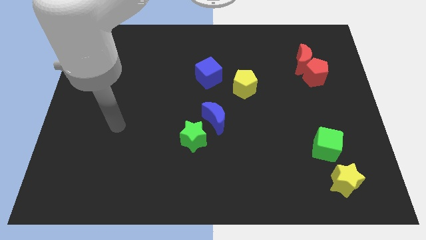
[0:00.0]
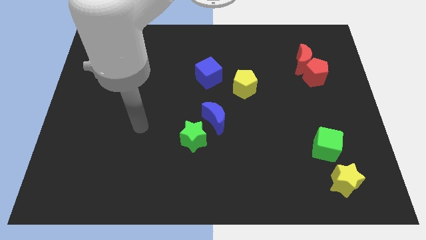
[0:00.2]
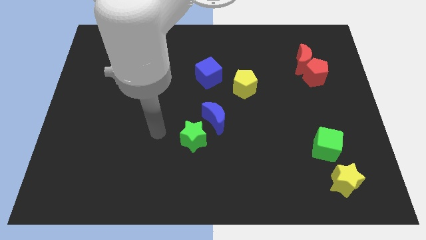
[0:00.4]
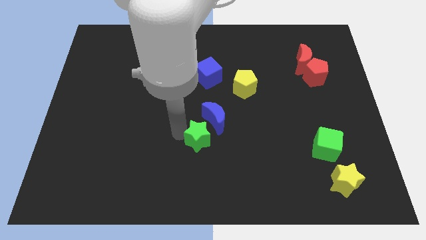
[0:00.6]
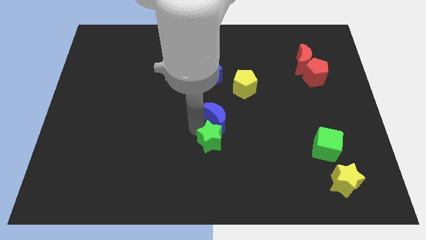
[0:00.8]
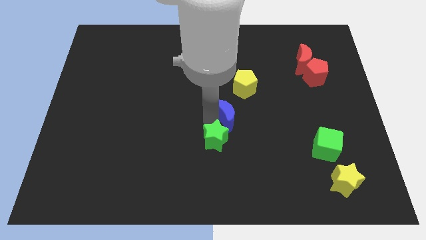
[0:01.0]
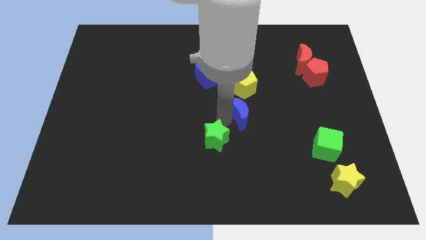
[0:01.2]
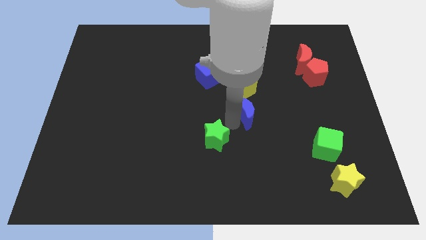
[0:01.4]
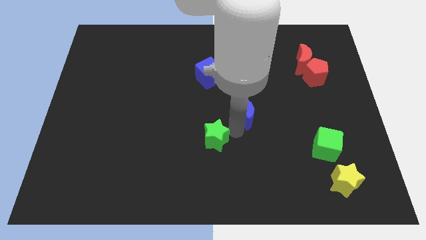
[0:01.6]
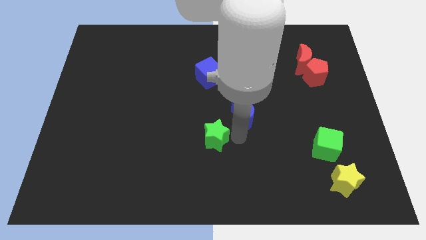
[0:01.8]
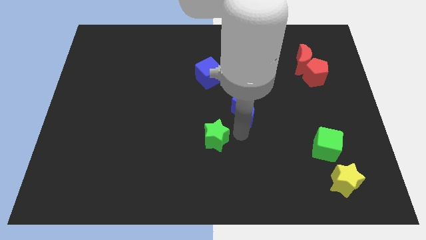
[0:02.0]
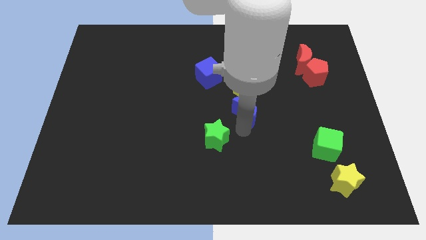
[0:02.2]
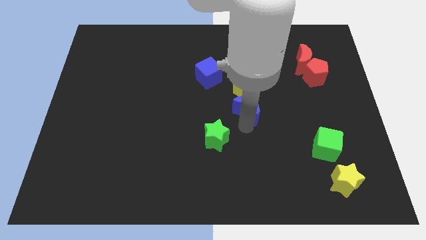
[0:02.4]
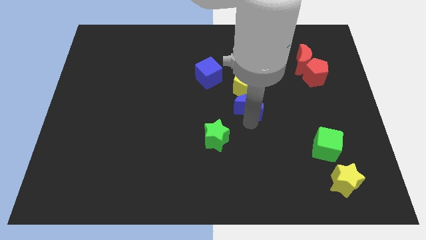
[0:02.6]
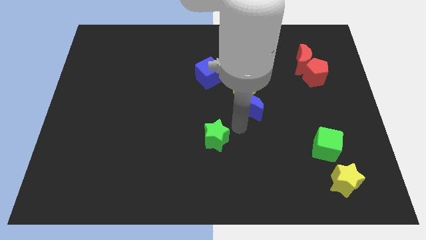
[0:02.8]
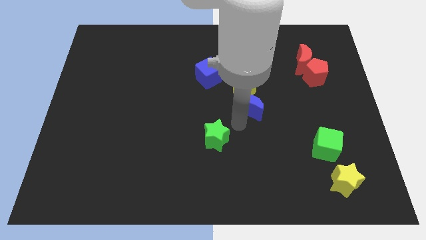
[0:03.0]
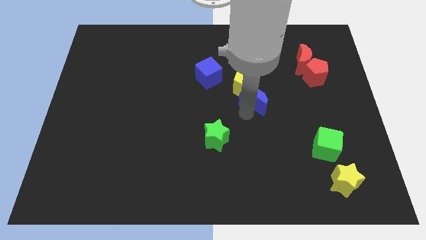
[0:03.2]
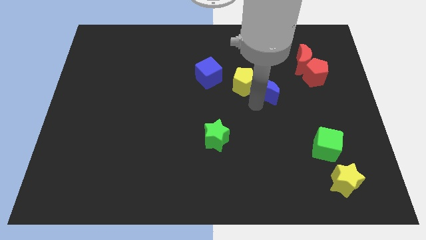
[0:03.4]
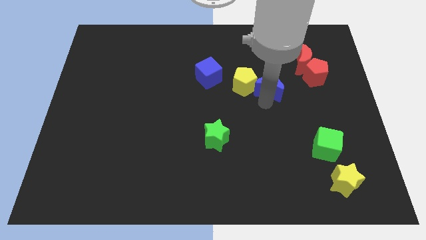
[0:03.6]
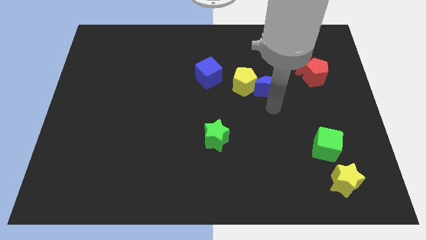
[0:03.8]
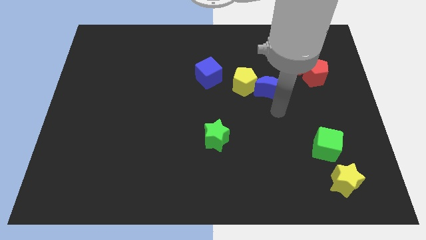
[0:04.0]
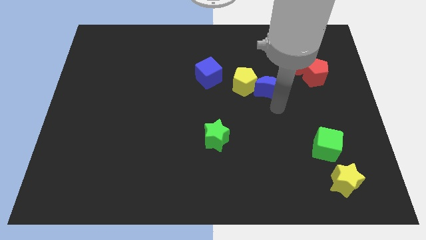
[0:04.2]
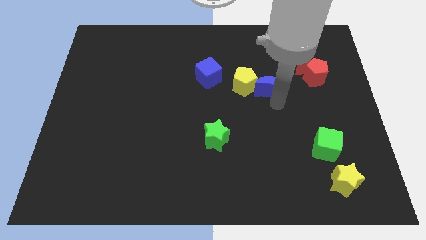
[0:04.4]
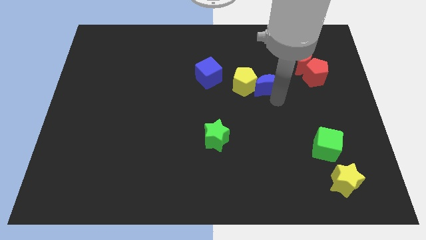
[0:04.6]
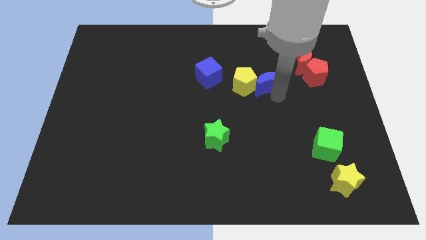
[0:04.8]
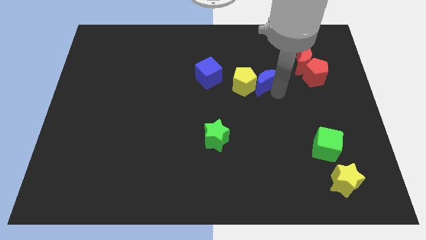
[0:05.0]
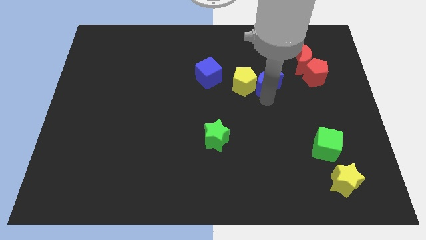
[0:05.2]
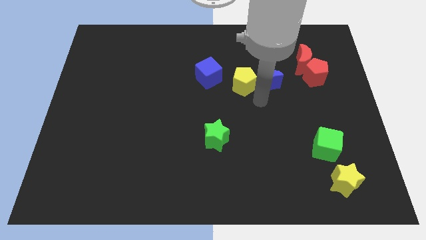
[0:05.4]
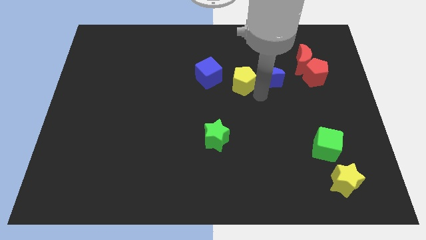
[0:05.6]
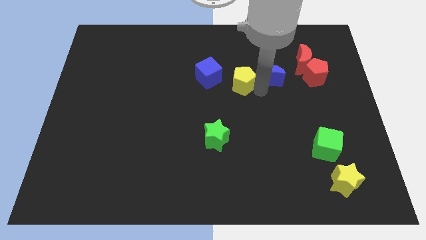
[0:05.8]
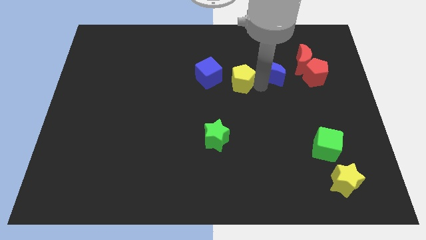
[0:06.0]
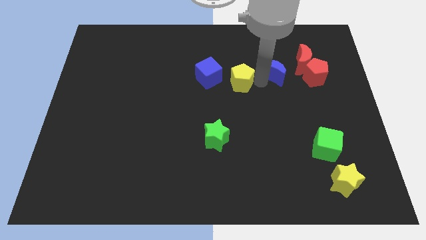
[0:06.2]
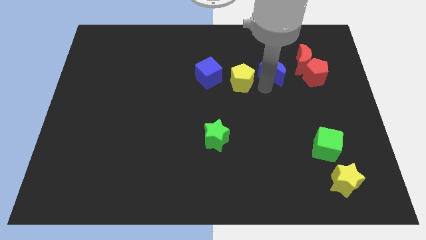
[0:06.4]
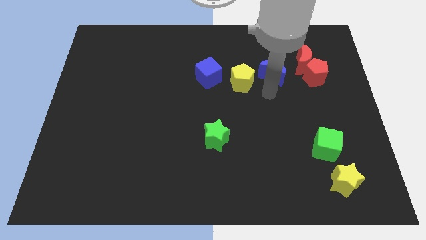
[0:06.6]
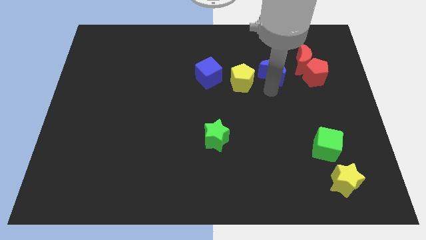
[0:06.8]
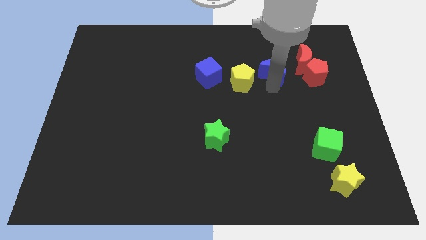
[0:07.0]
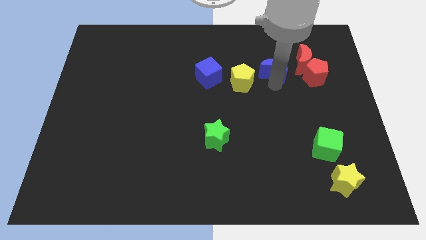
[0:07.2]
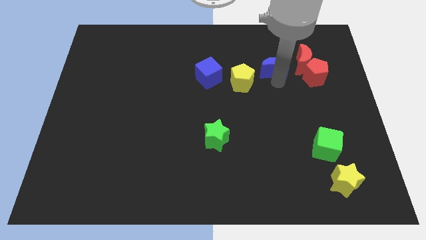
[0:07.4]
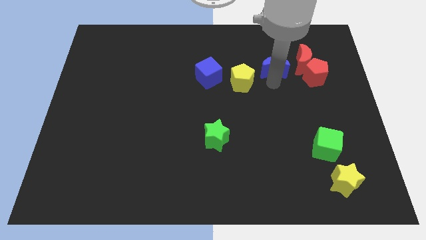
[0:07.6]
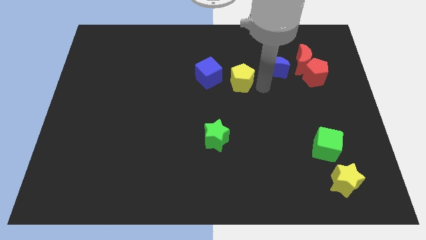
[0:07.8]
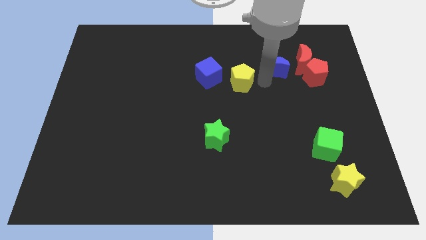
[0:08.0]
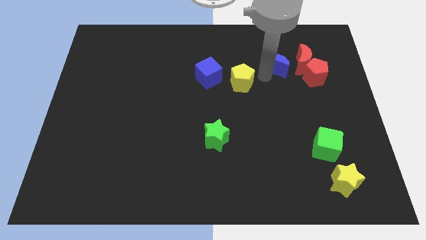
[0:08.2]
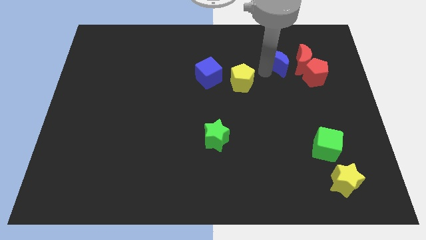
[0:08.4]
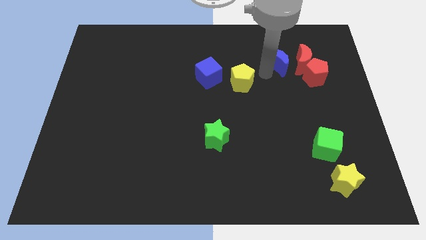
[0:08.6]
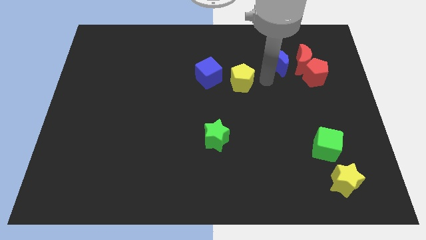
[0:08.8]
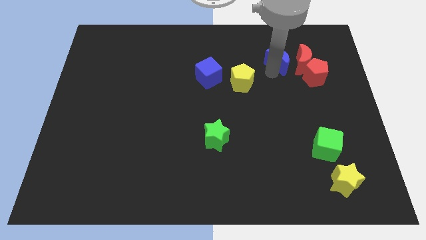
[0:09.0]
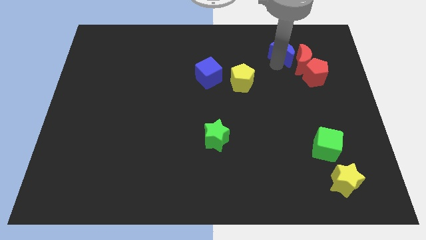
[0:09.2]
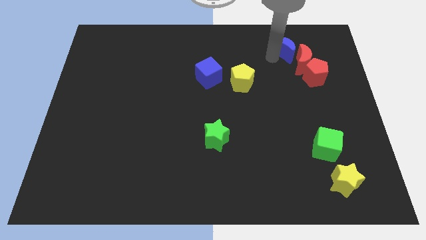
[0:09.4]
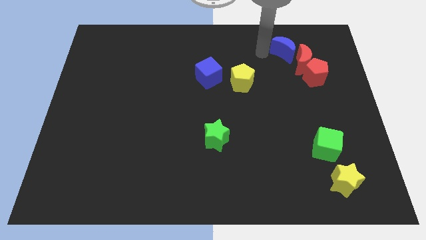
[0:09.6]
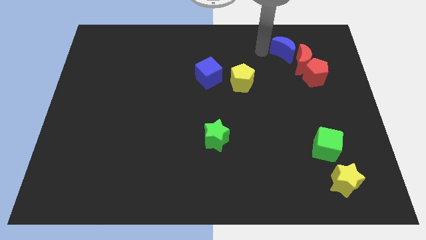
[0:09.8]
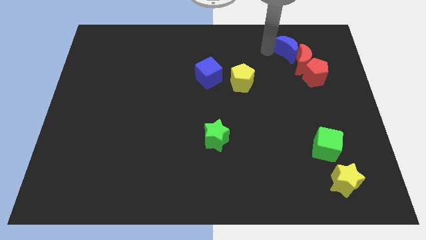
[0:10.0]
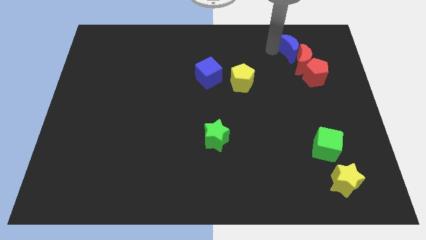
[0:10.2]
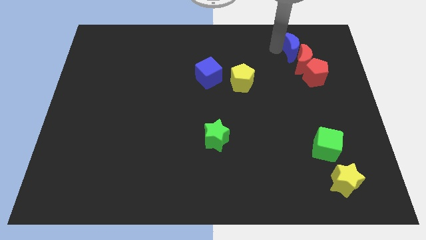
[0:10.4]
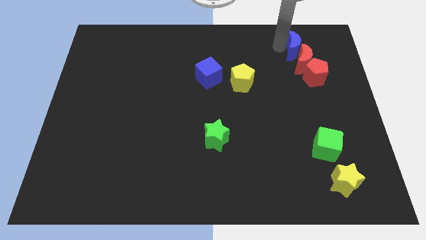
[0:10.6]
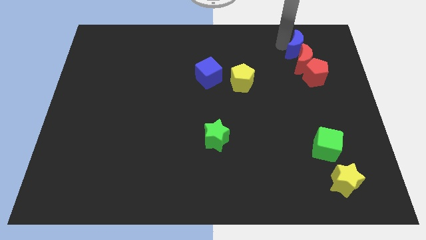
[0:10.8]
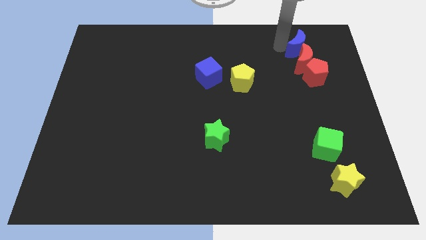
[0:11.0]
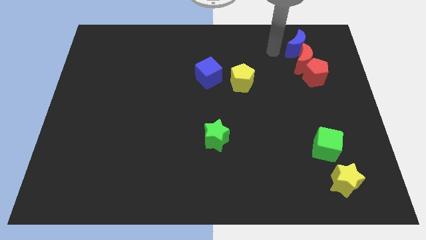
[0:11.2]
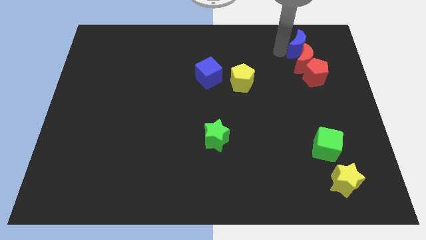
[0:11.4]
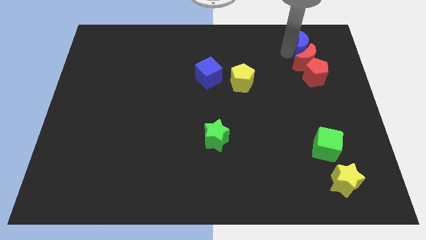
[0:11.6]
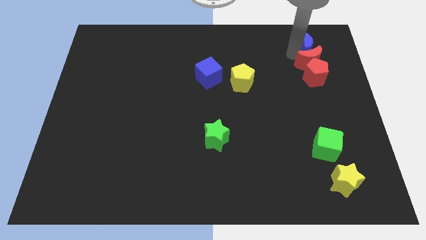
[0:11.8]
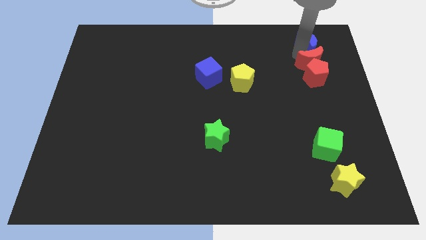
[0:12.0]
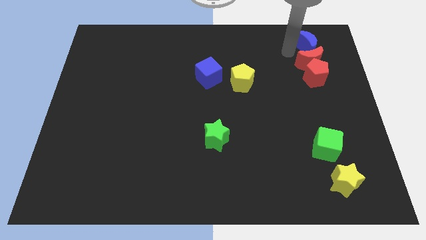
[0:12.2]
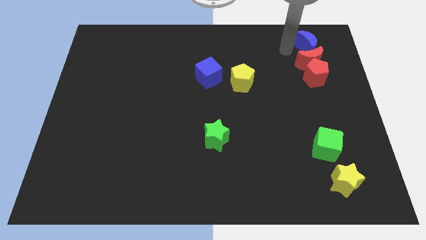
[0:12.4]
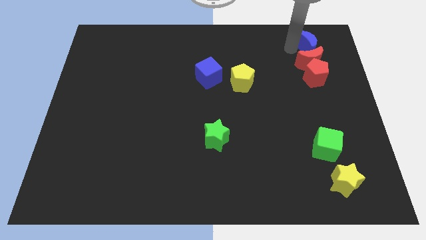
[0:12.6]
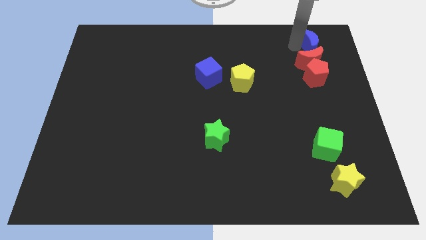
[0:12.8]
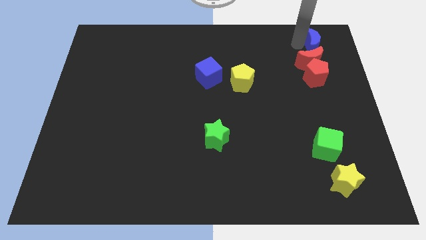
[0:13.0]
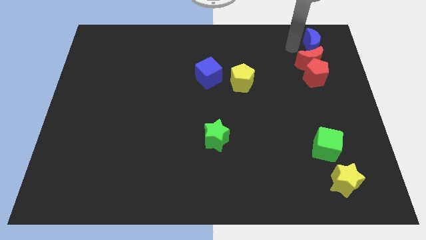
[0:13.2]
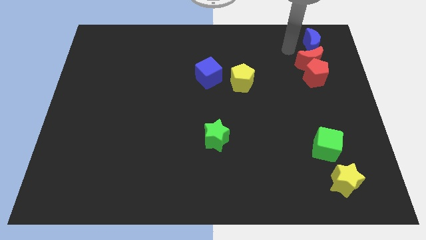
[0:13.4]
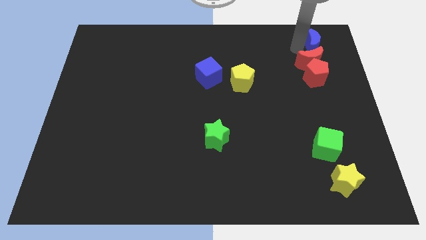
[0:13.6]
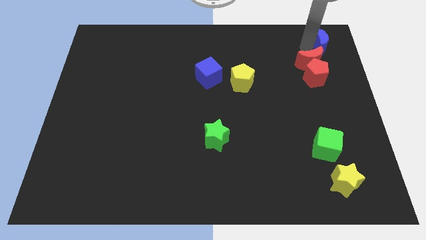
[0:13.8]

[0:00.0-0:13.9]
slide the blue moon to the top right corner
